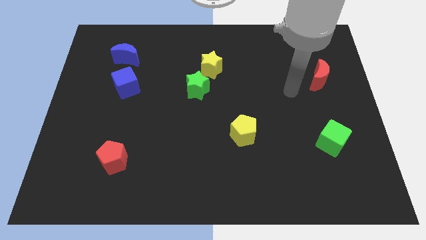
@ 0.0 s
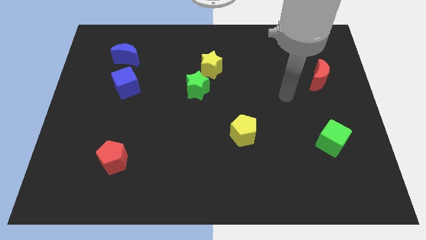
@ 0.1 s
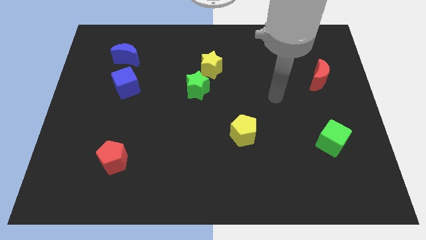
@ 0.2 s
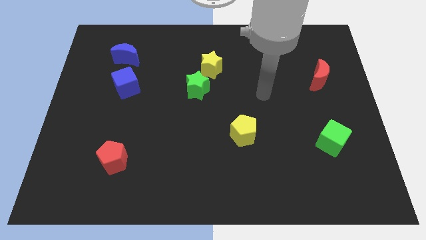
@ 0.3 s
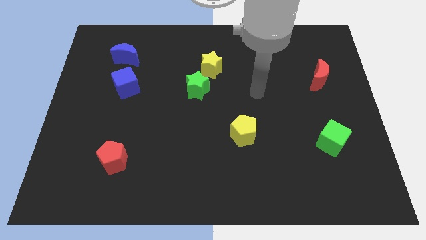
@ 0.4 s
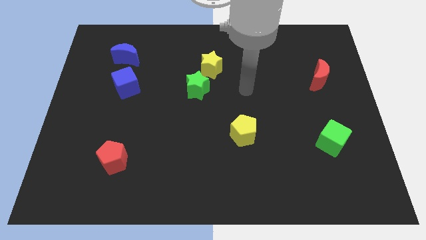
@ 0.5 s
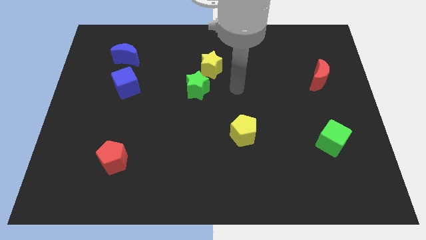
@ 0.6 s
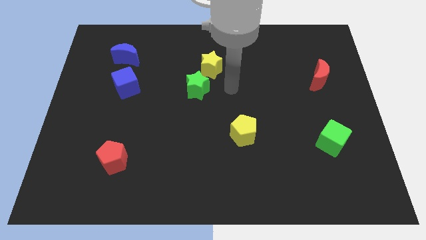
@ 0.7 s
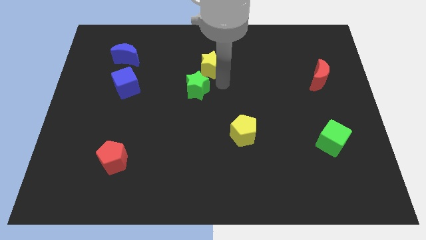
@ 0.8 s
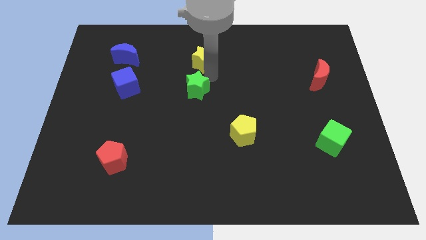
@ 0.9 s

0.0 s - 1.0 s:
move the green star away from the yellow star

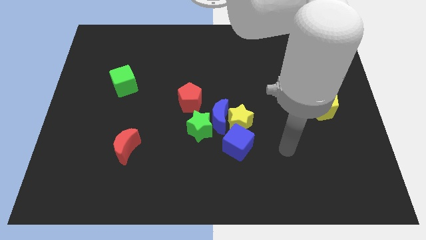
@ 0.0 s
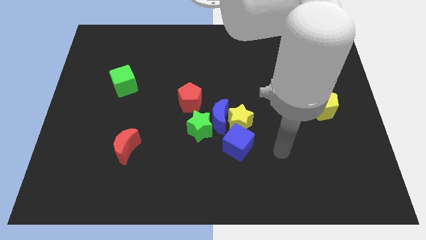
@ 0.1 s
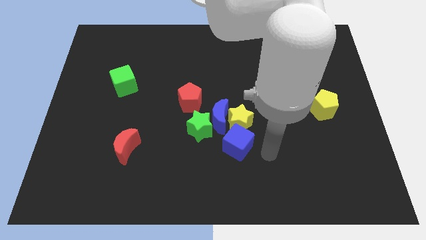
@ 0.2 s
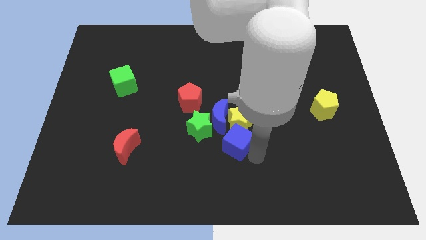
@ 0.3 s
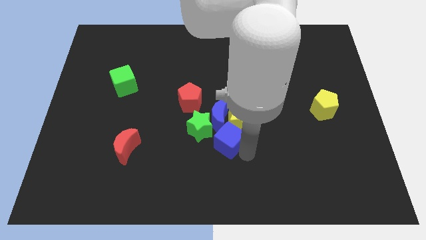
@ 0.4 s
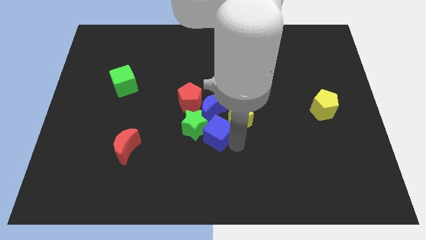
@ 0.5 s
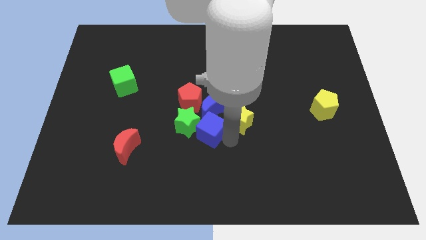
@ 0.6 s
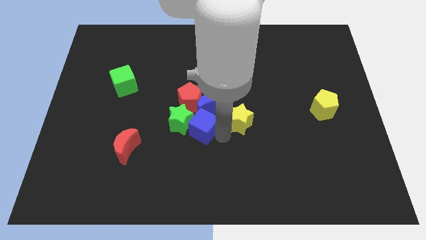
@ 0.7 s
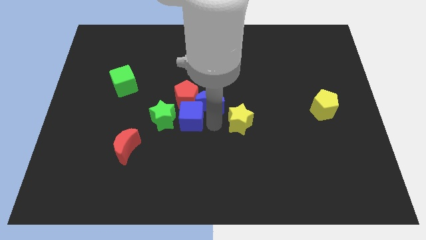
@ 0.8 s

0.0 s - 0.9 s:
move the yellow star away from the group

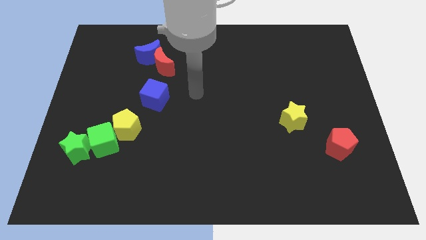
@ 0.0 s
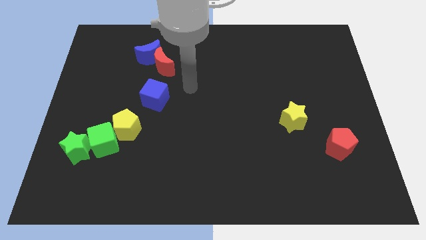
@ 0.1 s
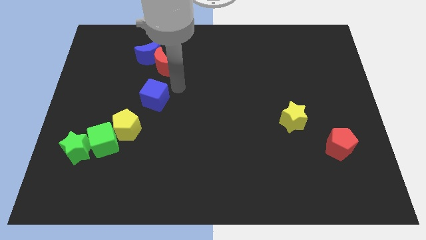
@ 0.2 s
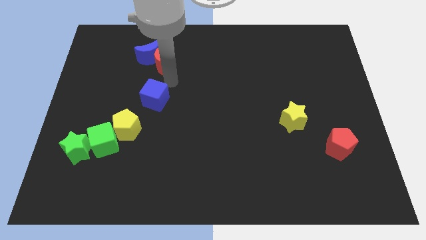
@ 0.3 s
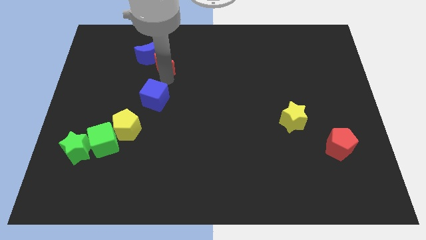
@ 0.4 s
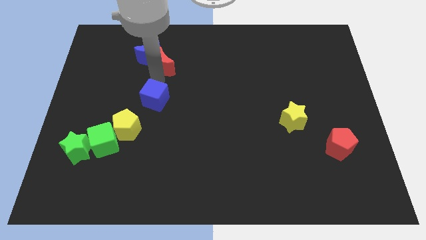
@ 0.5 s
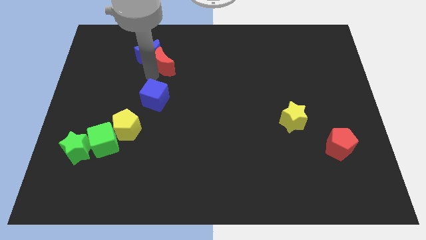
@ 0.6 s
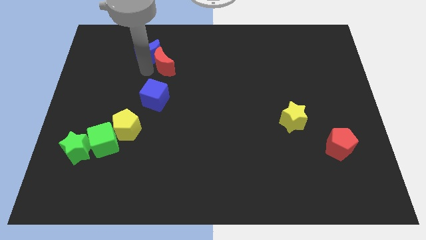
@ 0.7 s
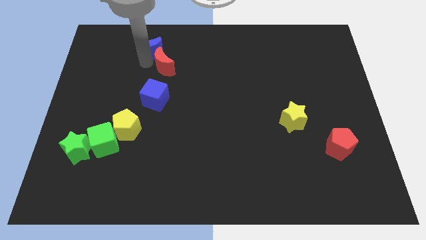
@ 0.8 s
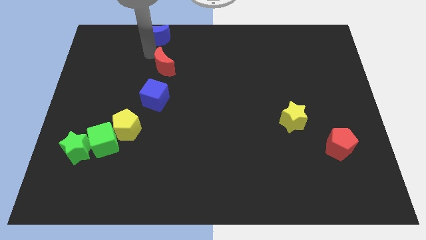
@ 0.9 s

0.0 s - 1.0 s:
pull the red moon apart from the blue moon

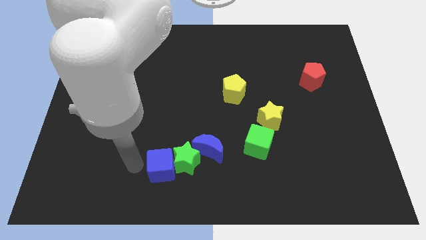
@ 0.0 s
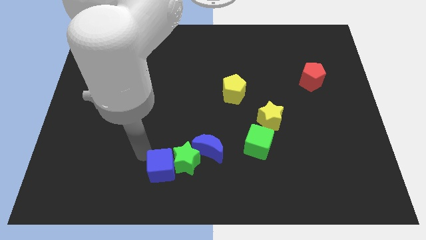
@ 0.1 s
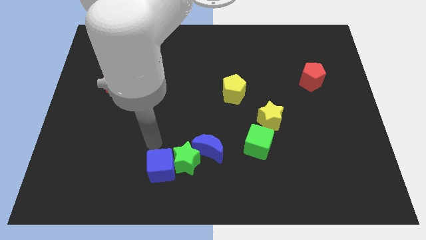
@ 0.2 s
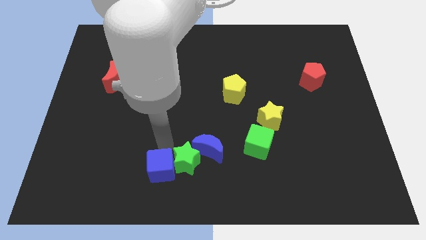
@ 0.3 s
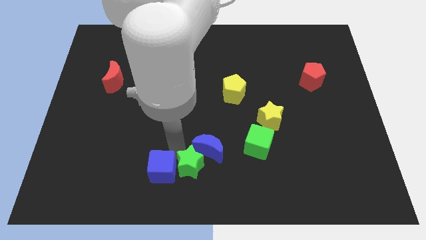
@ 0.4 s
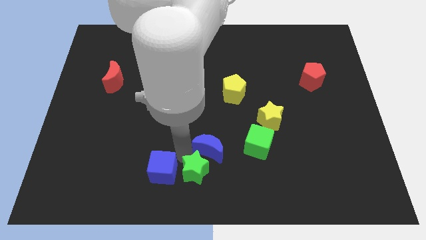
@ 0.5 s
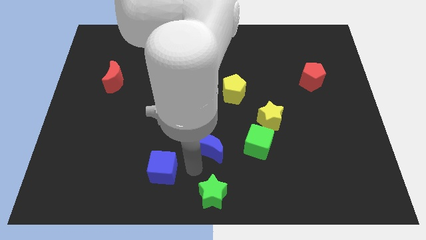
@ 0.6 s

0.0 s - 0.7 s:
pull the blue cube apart from the green star

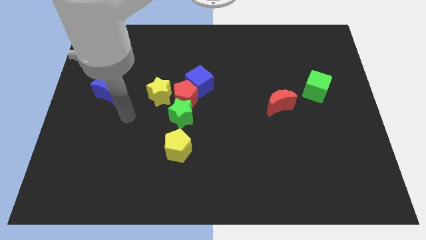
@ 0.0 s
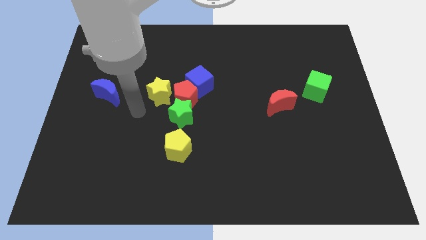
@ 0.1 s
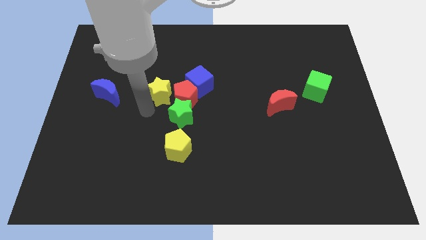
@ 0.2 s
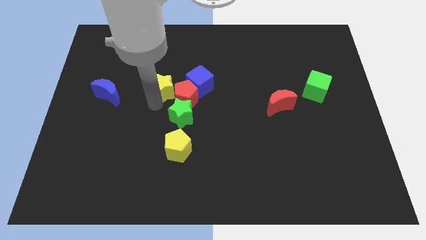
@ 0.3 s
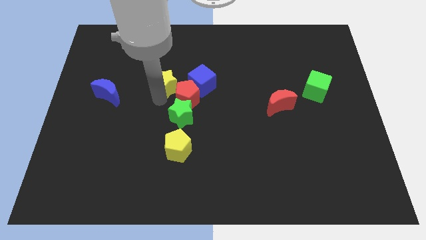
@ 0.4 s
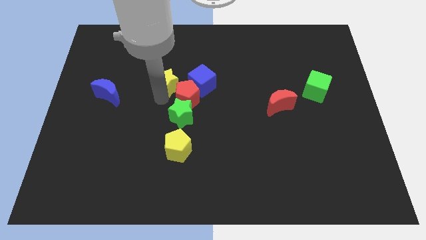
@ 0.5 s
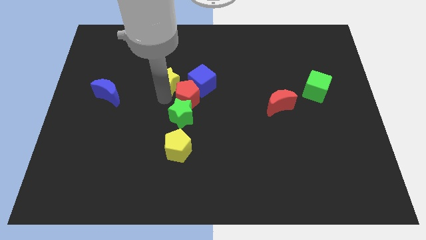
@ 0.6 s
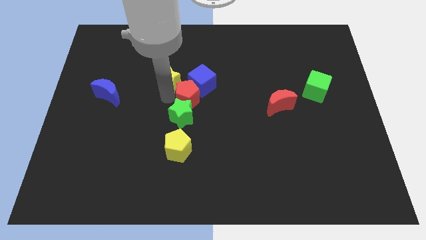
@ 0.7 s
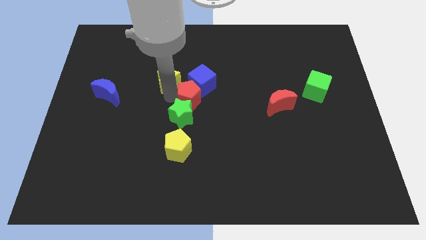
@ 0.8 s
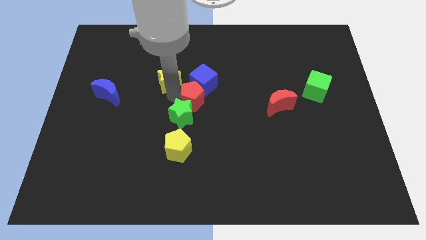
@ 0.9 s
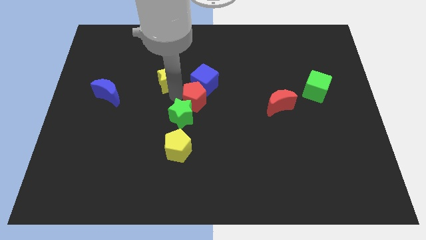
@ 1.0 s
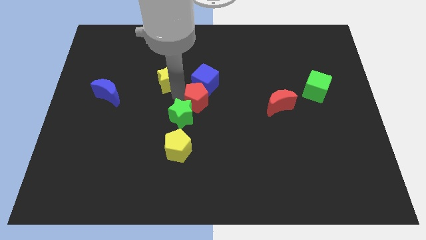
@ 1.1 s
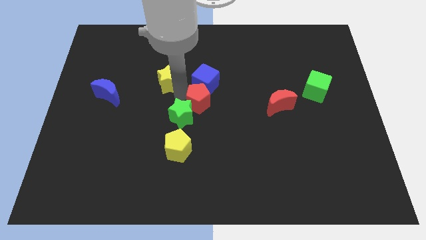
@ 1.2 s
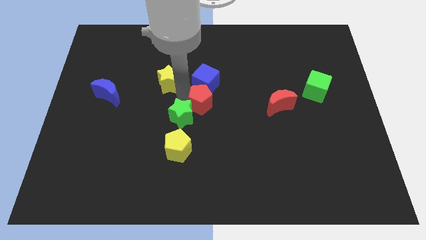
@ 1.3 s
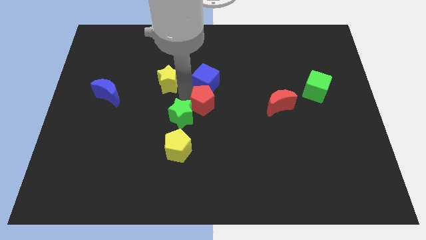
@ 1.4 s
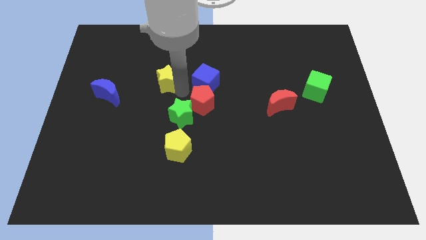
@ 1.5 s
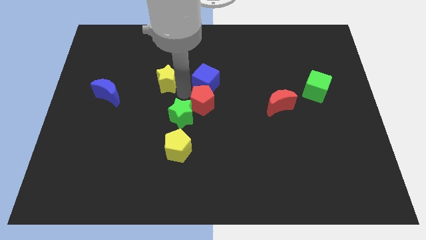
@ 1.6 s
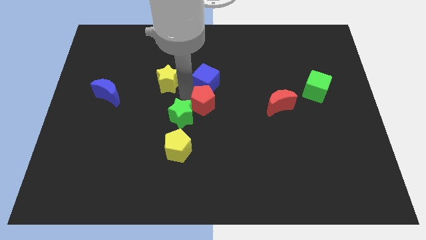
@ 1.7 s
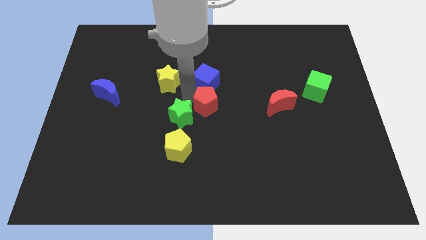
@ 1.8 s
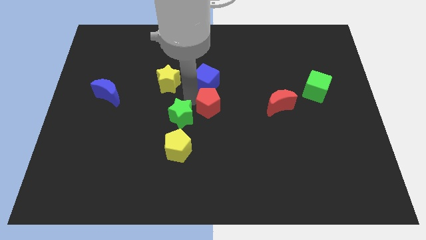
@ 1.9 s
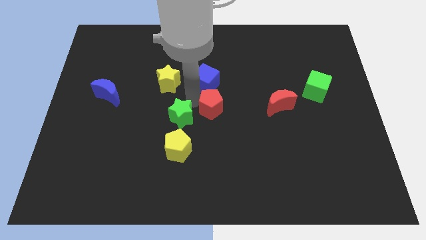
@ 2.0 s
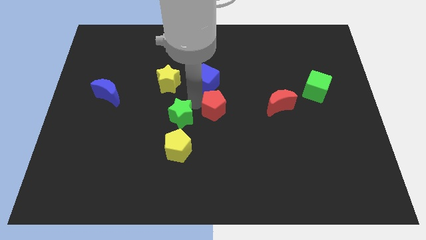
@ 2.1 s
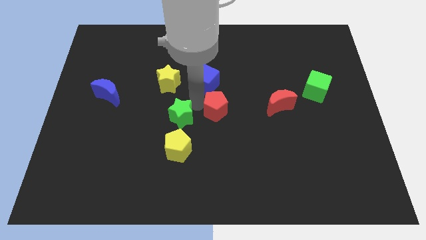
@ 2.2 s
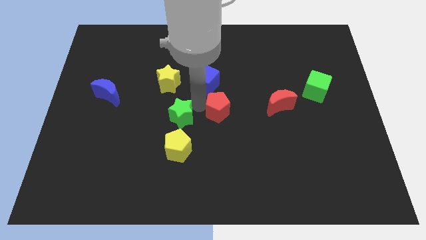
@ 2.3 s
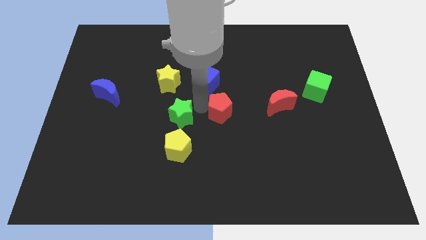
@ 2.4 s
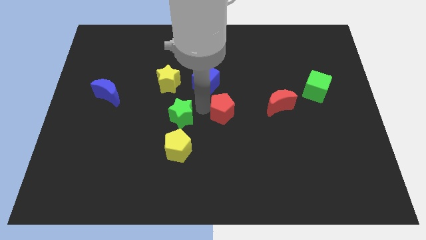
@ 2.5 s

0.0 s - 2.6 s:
pull the red pentagon apart from the clump

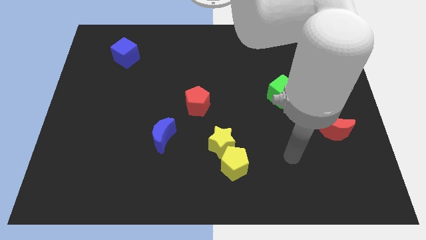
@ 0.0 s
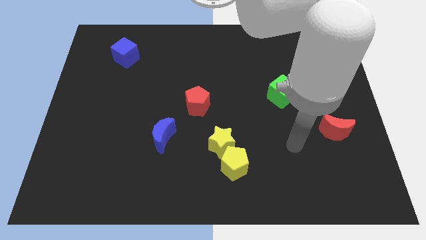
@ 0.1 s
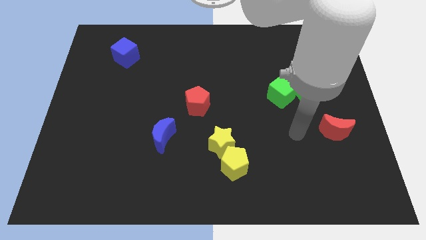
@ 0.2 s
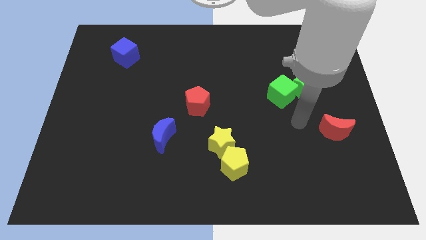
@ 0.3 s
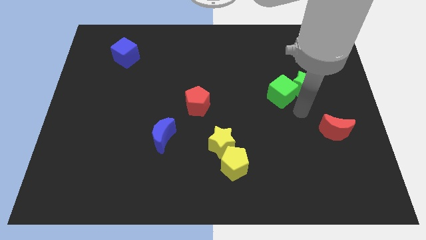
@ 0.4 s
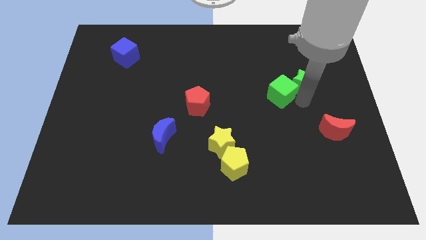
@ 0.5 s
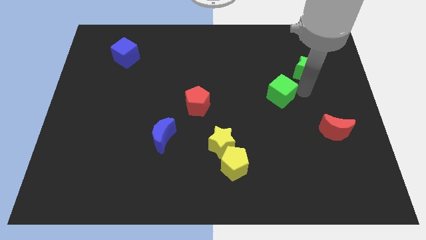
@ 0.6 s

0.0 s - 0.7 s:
separate the green cube from the green star

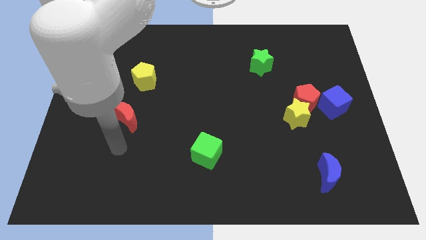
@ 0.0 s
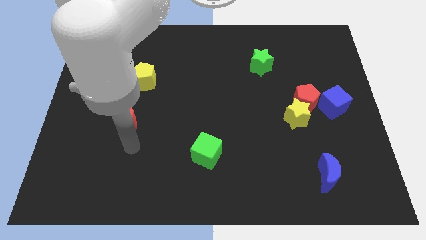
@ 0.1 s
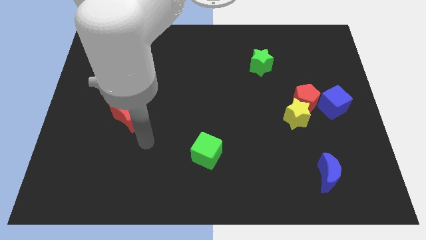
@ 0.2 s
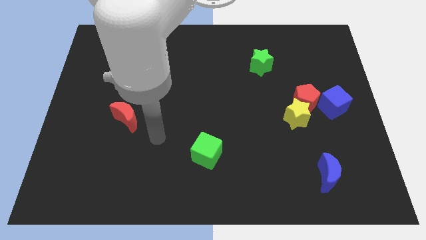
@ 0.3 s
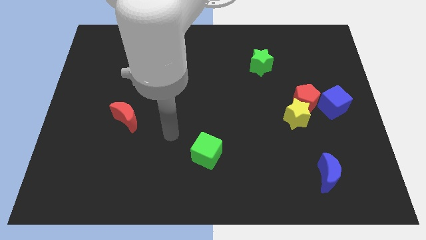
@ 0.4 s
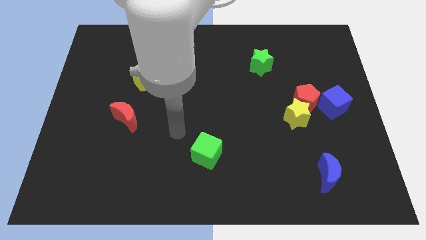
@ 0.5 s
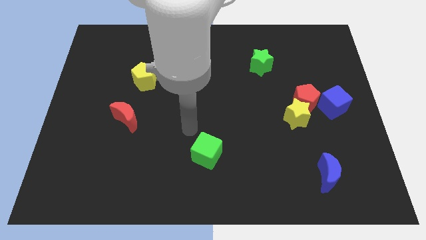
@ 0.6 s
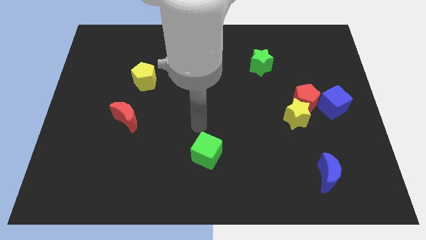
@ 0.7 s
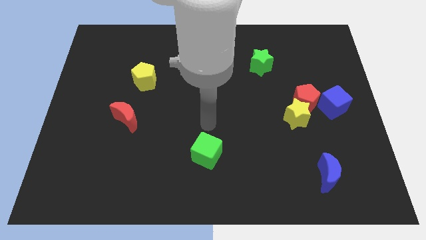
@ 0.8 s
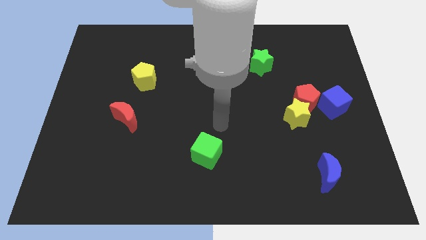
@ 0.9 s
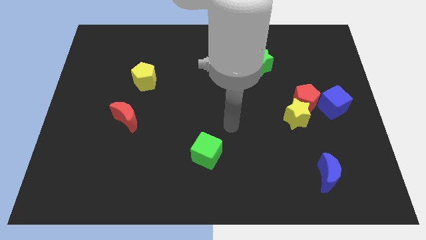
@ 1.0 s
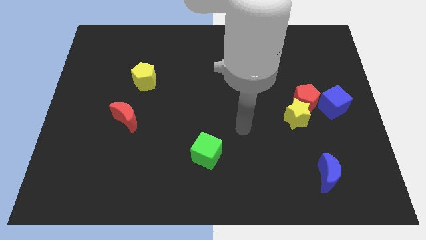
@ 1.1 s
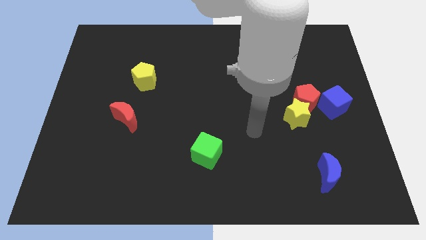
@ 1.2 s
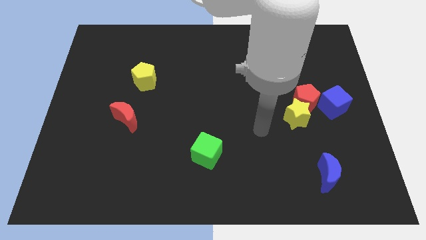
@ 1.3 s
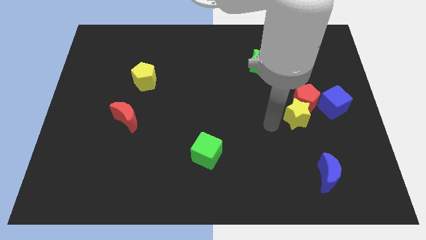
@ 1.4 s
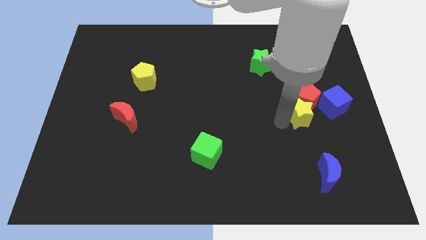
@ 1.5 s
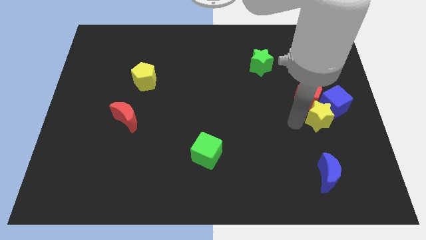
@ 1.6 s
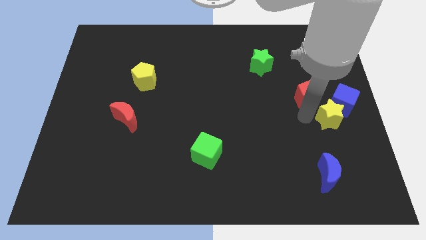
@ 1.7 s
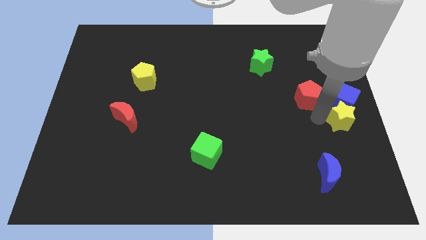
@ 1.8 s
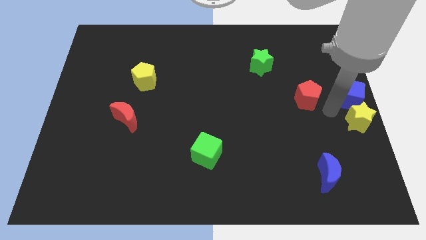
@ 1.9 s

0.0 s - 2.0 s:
pull the red pentagon apart from the yellow star and blue cube

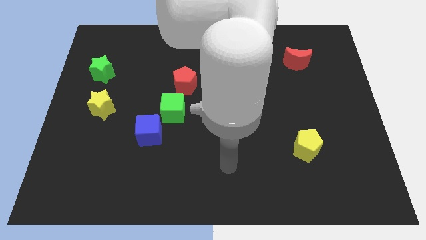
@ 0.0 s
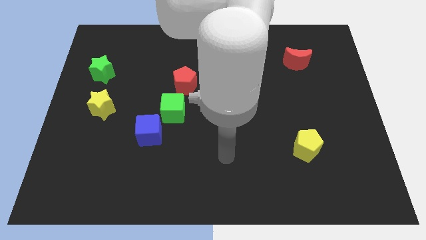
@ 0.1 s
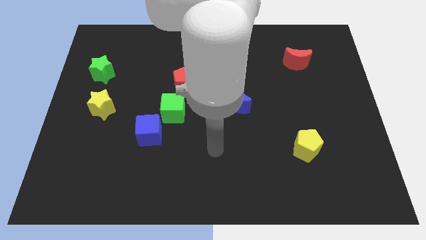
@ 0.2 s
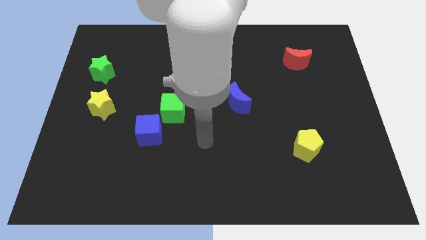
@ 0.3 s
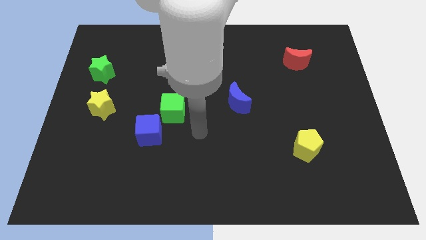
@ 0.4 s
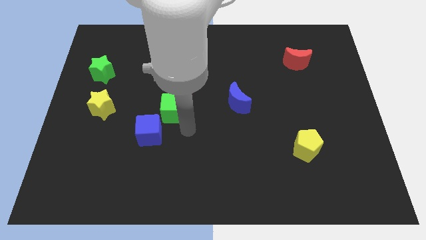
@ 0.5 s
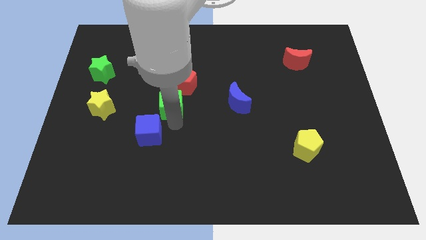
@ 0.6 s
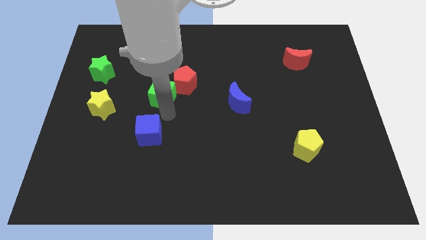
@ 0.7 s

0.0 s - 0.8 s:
pull the blue cube apart from the green cube